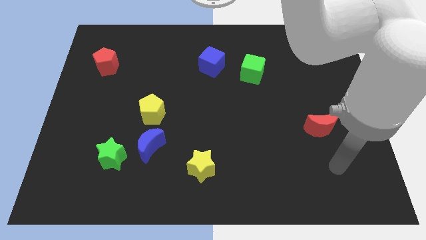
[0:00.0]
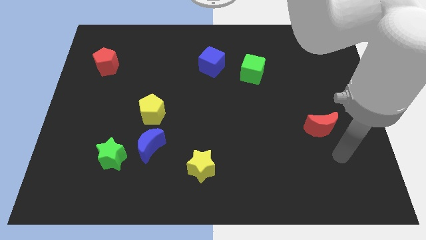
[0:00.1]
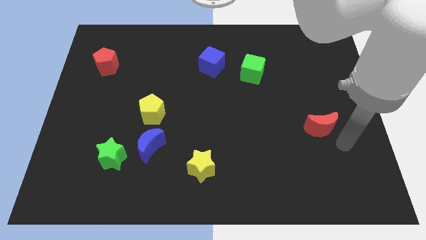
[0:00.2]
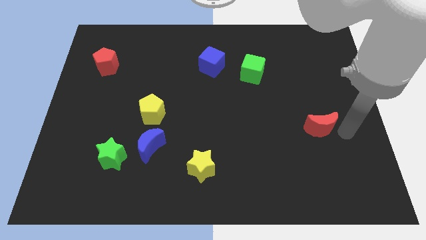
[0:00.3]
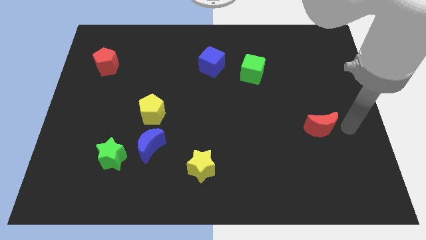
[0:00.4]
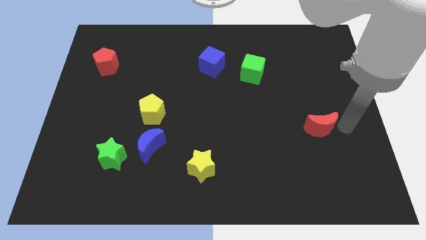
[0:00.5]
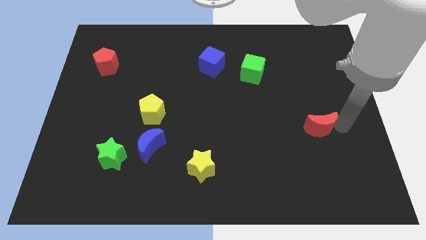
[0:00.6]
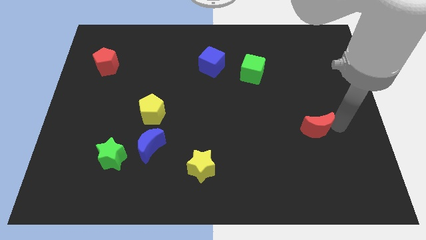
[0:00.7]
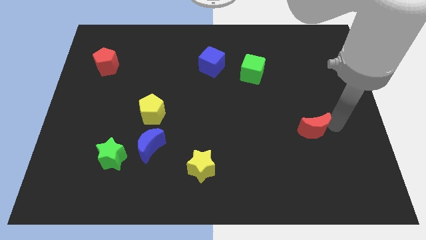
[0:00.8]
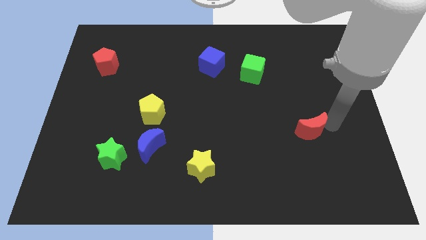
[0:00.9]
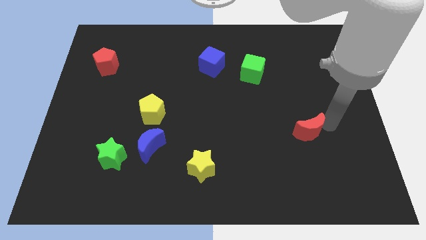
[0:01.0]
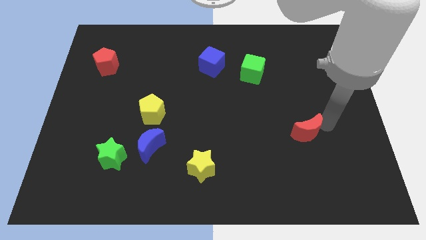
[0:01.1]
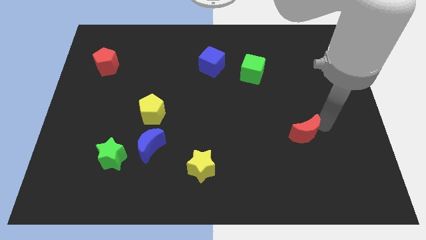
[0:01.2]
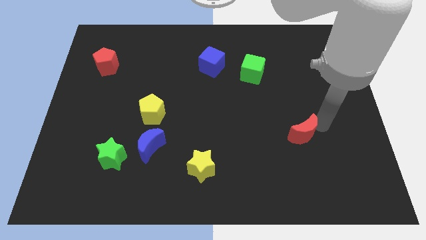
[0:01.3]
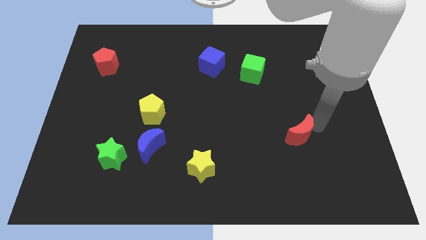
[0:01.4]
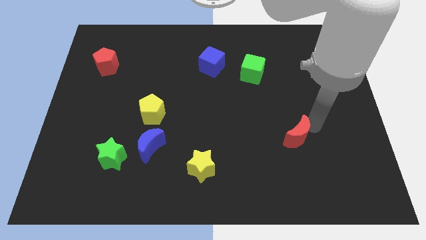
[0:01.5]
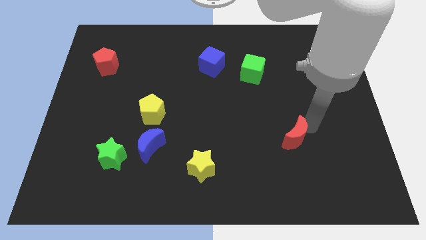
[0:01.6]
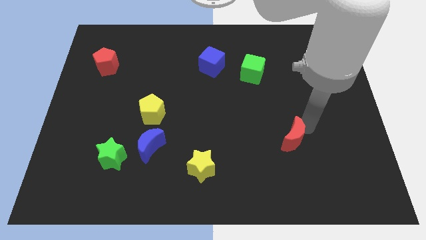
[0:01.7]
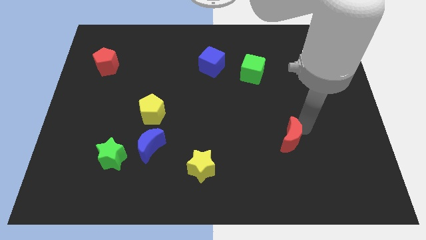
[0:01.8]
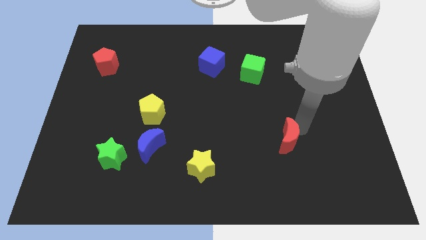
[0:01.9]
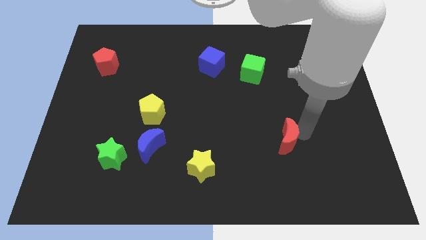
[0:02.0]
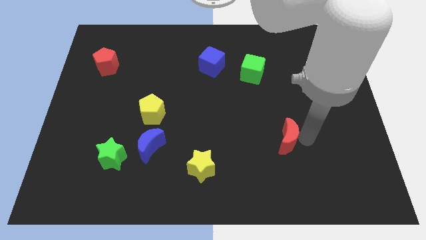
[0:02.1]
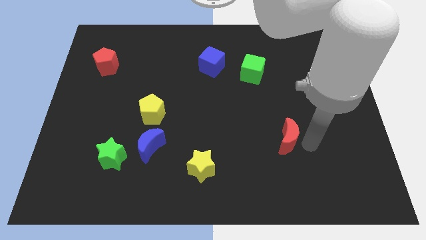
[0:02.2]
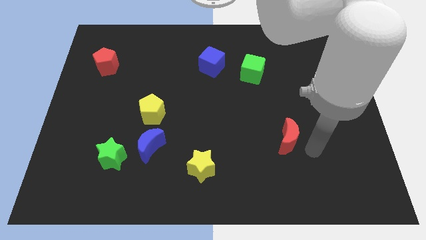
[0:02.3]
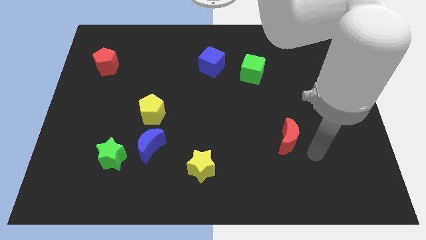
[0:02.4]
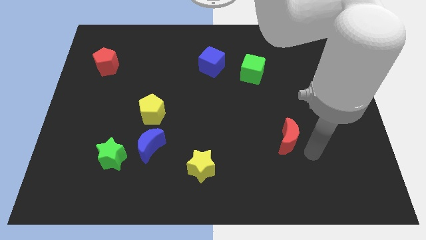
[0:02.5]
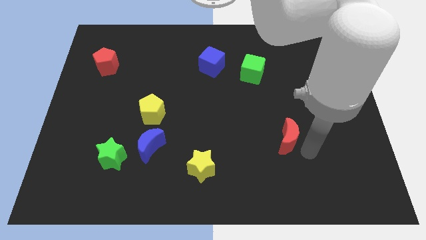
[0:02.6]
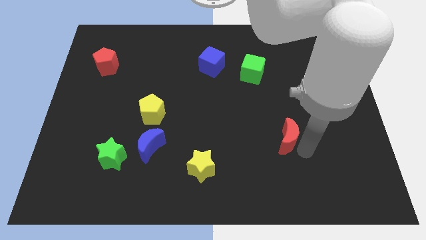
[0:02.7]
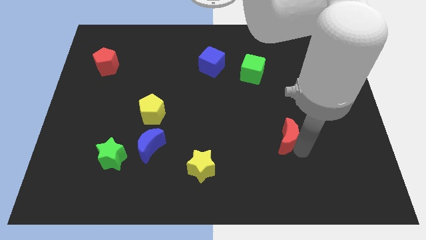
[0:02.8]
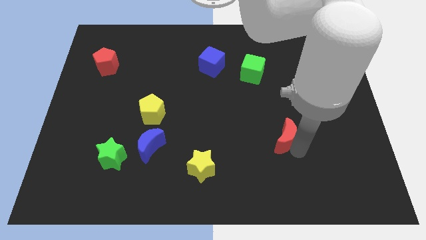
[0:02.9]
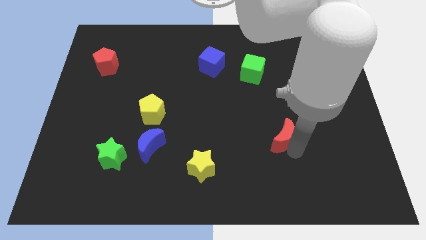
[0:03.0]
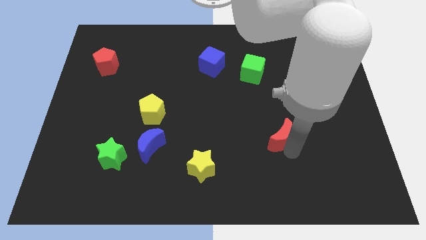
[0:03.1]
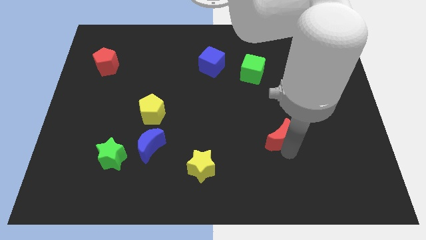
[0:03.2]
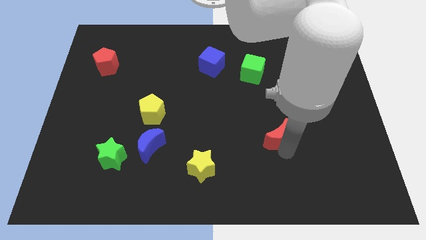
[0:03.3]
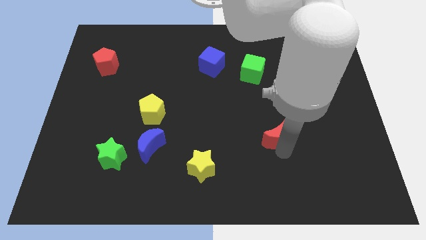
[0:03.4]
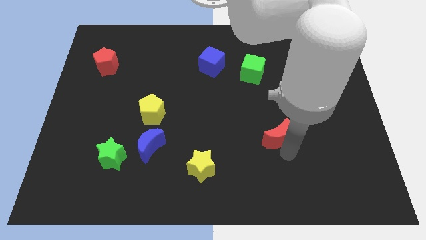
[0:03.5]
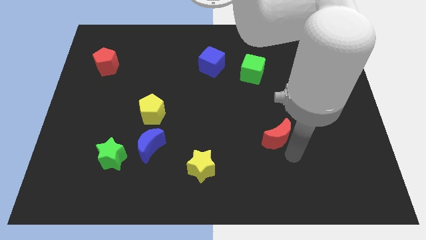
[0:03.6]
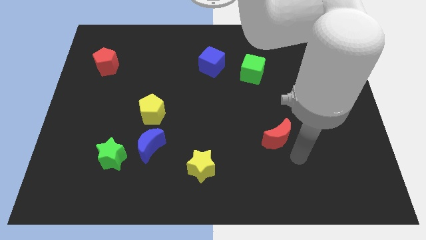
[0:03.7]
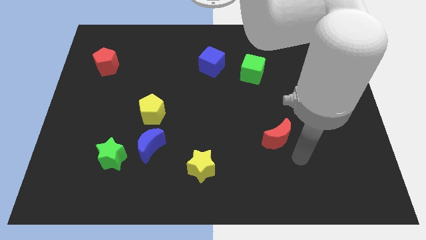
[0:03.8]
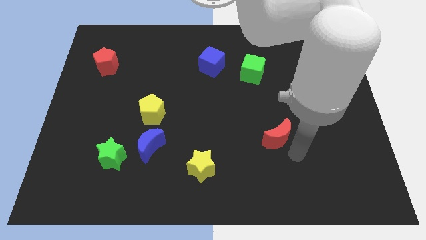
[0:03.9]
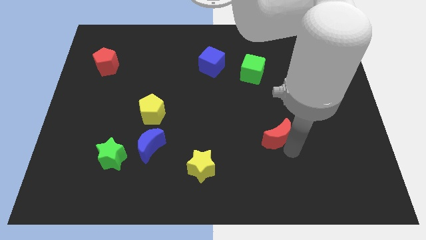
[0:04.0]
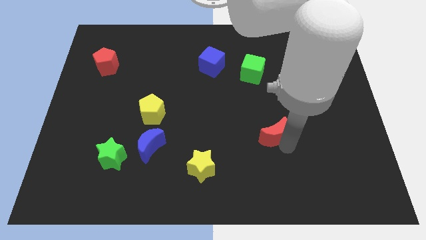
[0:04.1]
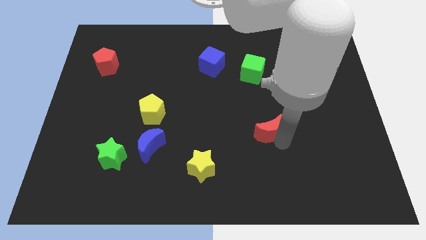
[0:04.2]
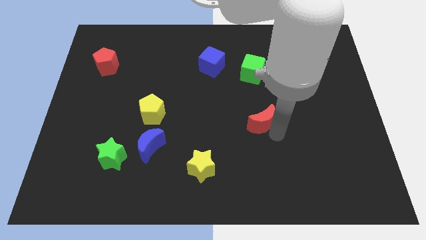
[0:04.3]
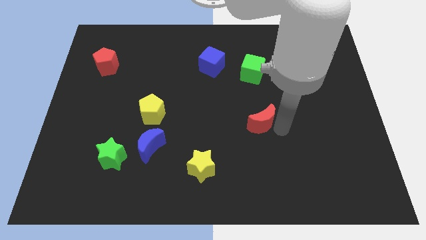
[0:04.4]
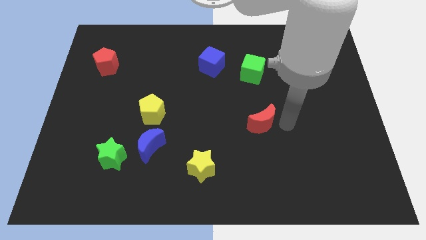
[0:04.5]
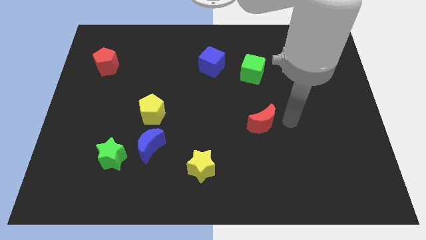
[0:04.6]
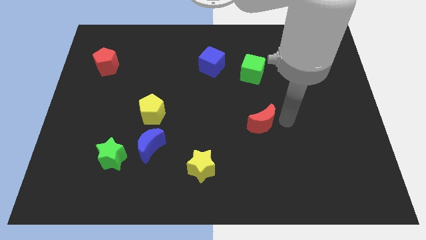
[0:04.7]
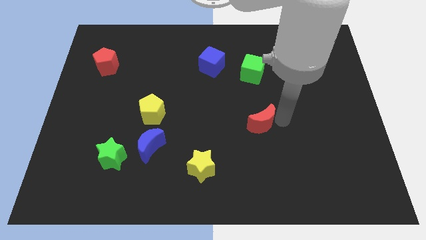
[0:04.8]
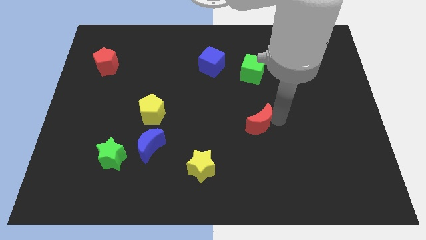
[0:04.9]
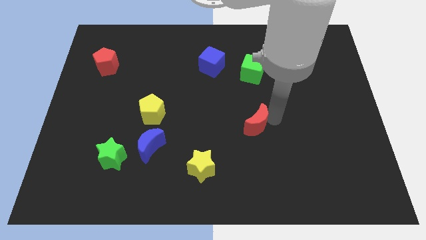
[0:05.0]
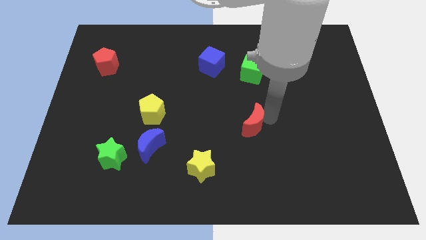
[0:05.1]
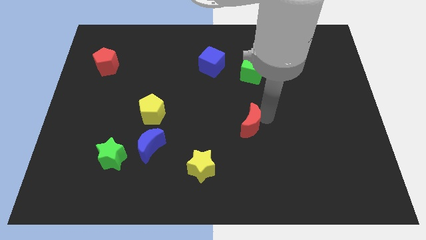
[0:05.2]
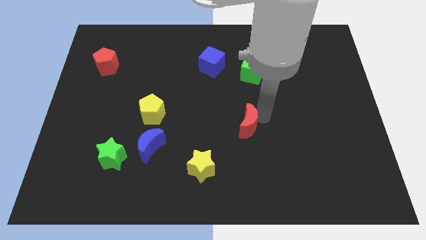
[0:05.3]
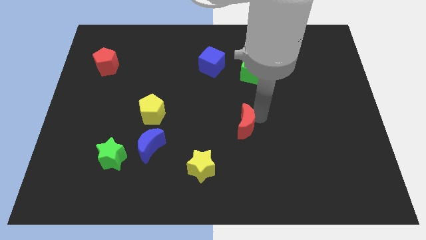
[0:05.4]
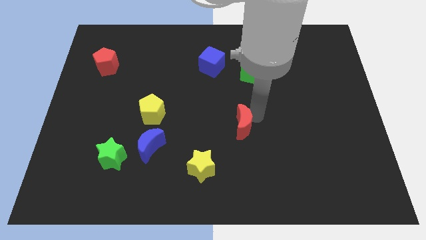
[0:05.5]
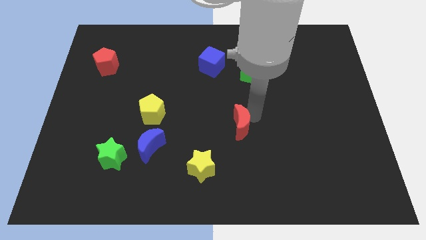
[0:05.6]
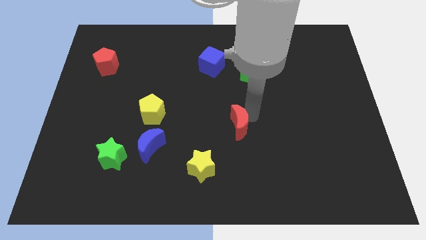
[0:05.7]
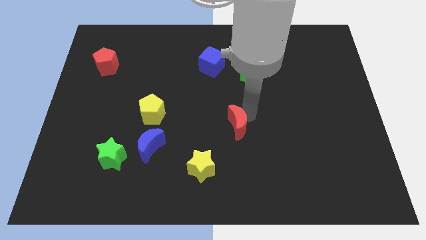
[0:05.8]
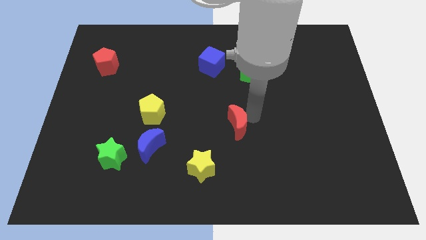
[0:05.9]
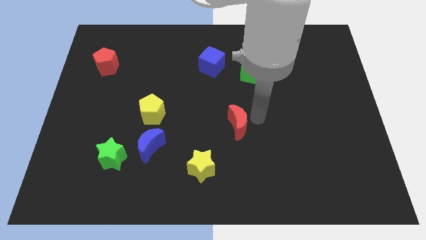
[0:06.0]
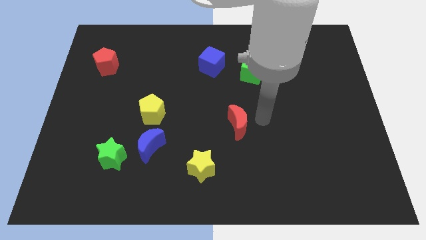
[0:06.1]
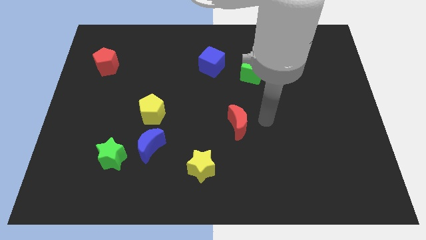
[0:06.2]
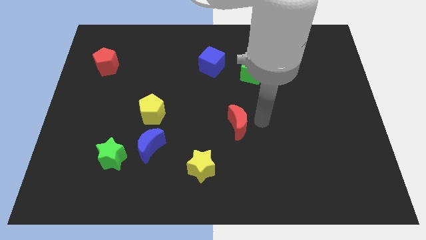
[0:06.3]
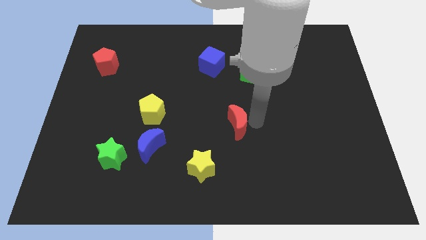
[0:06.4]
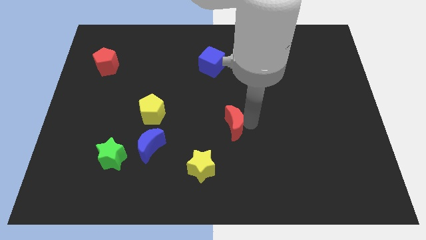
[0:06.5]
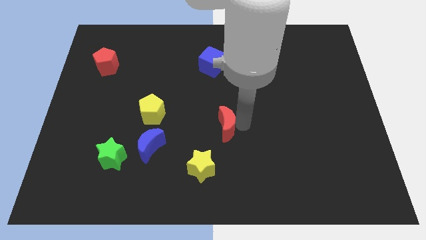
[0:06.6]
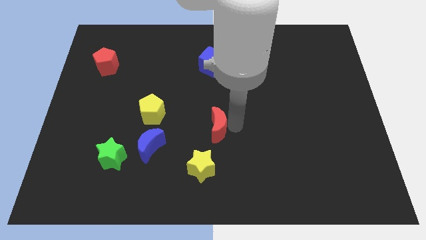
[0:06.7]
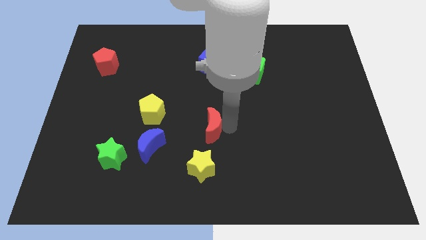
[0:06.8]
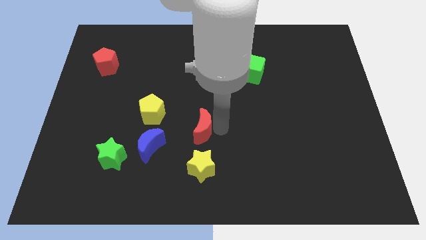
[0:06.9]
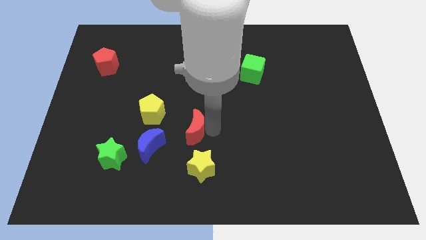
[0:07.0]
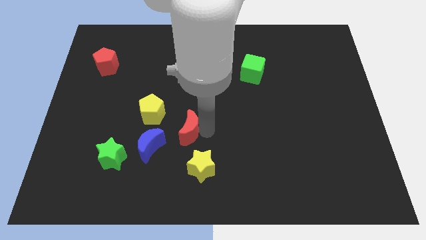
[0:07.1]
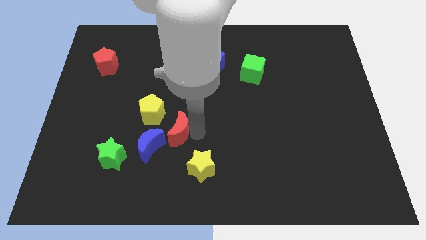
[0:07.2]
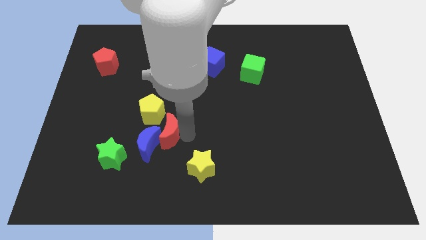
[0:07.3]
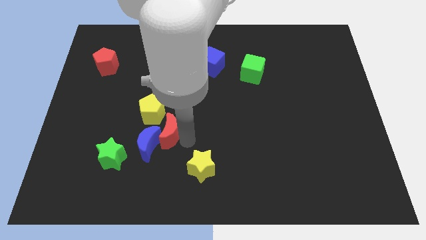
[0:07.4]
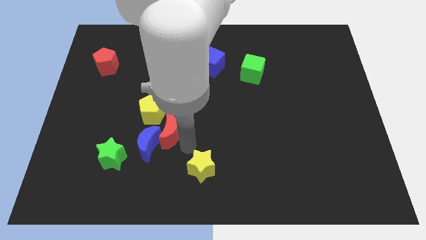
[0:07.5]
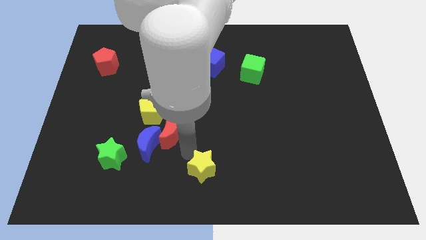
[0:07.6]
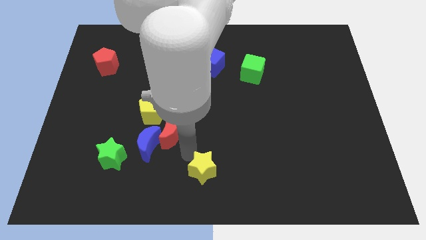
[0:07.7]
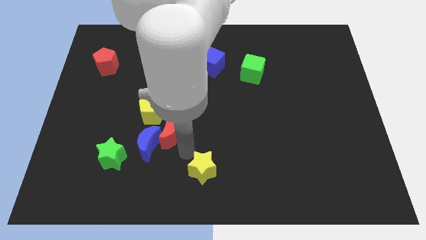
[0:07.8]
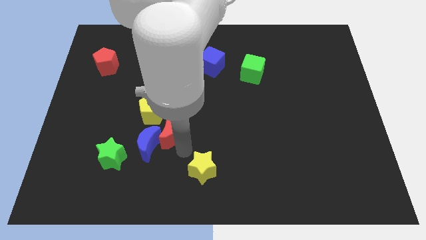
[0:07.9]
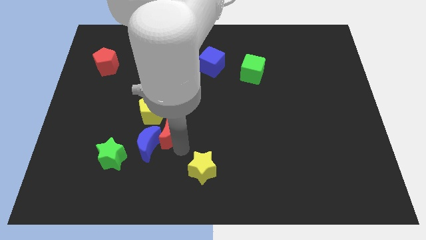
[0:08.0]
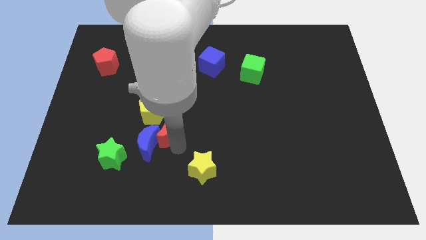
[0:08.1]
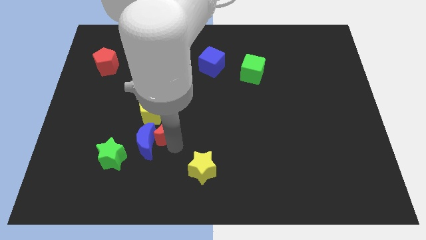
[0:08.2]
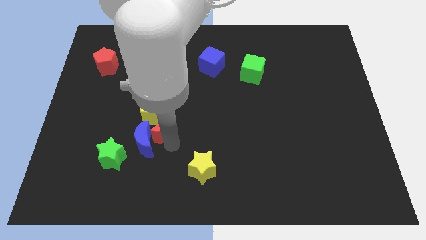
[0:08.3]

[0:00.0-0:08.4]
push the red moon close to the yellow pentagon
